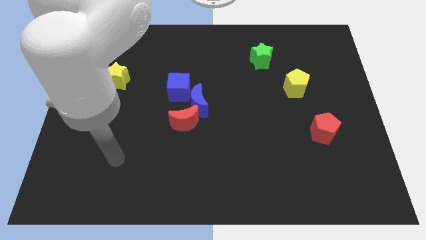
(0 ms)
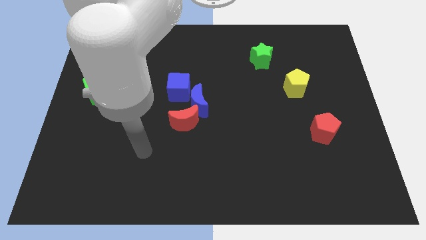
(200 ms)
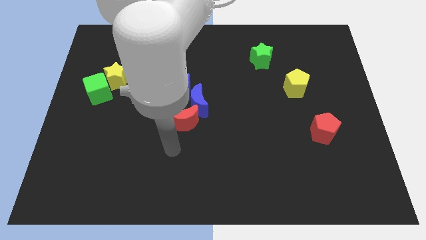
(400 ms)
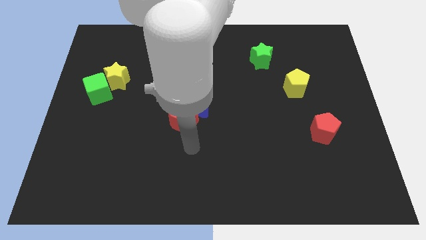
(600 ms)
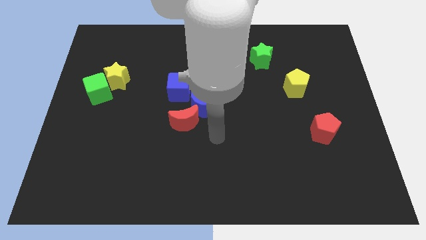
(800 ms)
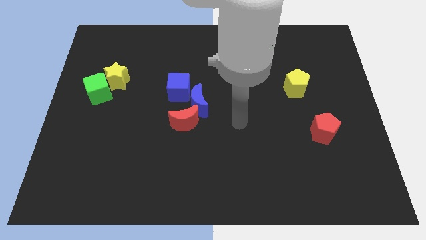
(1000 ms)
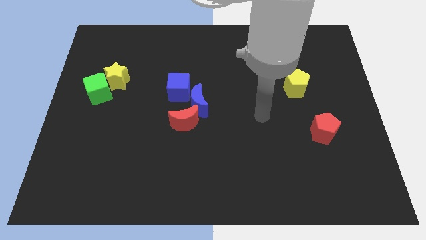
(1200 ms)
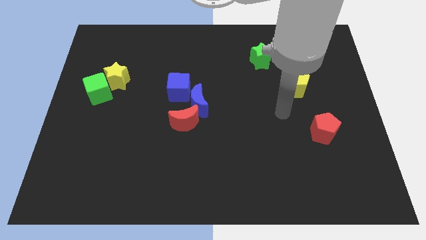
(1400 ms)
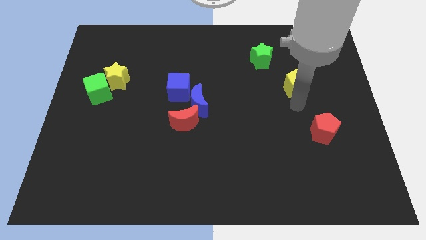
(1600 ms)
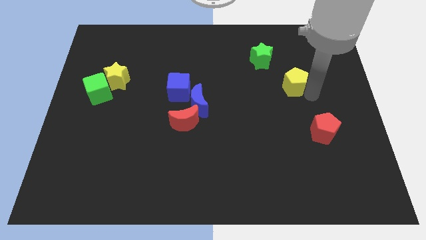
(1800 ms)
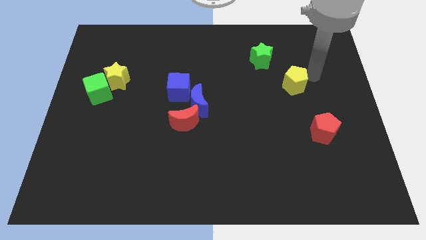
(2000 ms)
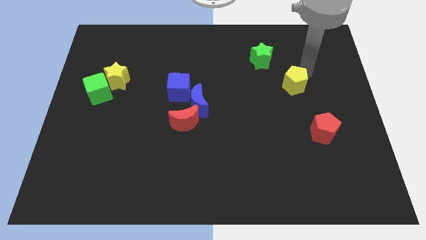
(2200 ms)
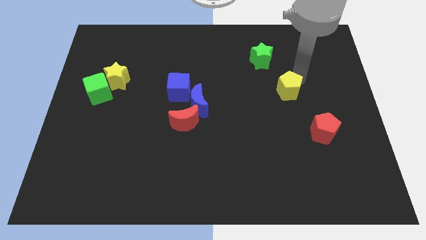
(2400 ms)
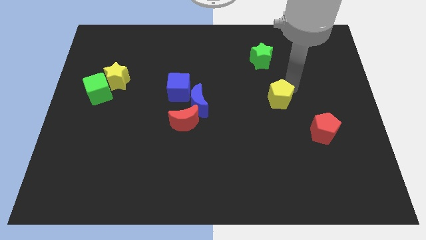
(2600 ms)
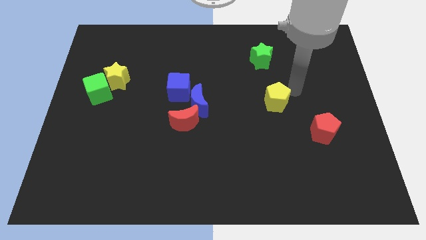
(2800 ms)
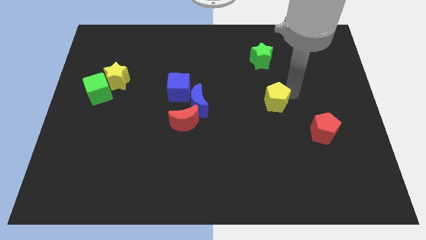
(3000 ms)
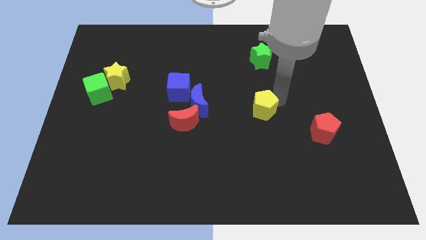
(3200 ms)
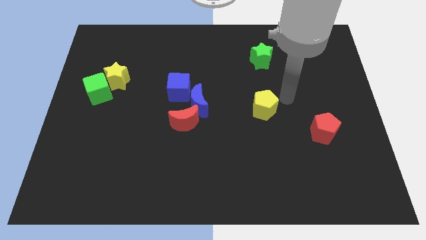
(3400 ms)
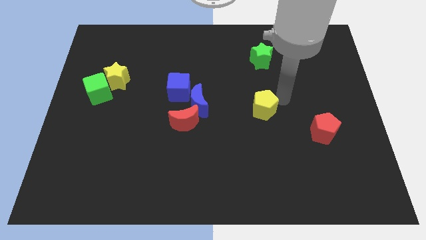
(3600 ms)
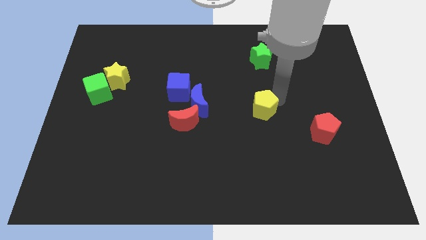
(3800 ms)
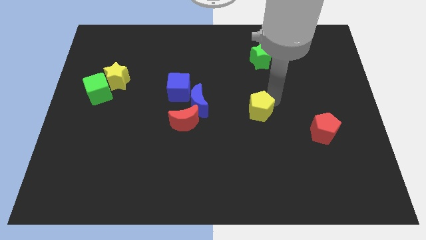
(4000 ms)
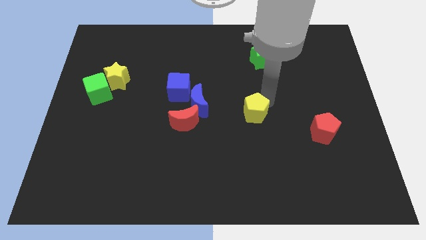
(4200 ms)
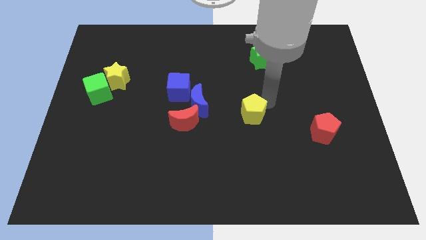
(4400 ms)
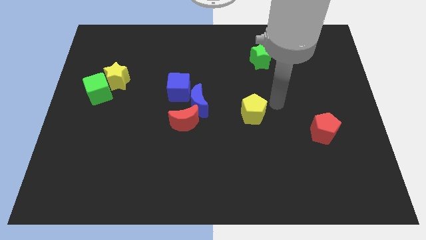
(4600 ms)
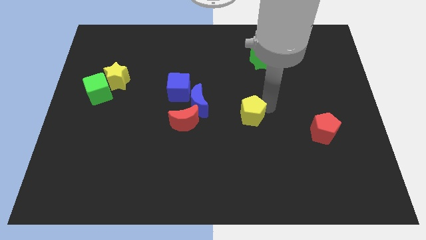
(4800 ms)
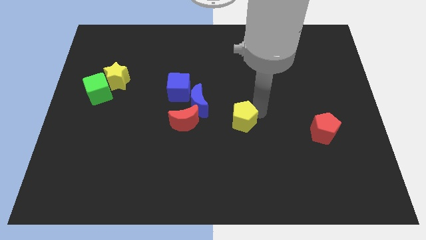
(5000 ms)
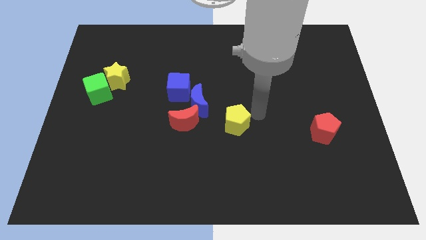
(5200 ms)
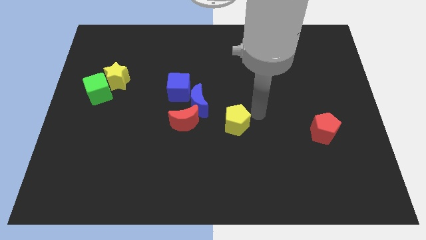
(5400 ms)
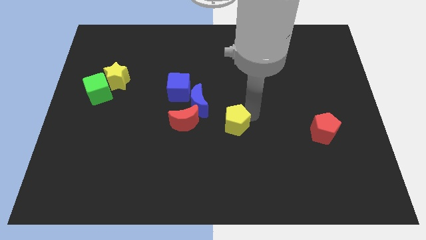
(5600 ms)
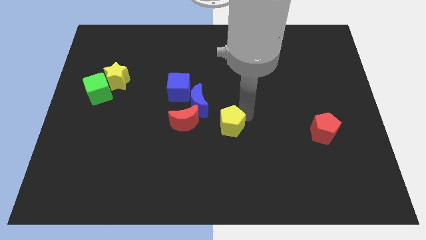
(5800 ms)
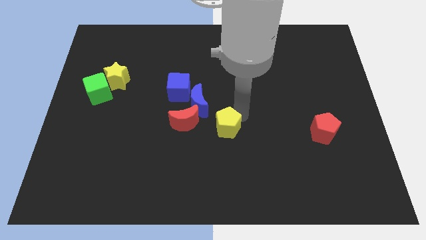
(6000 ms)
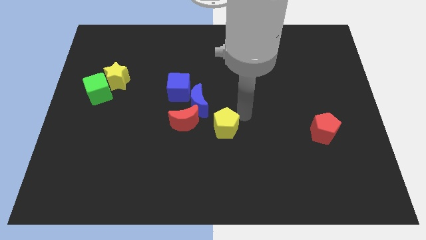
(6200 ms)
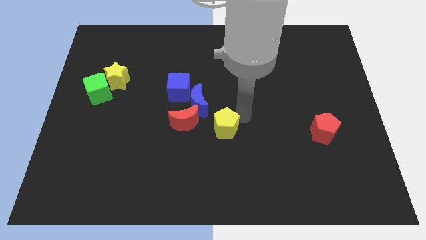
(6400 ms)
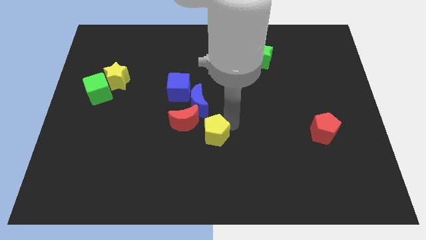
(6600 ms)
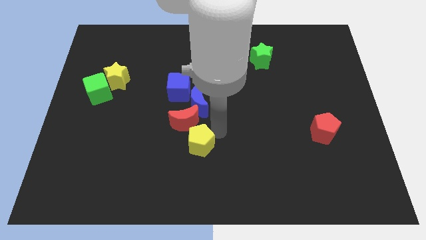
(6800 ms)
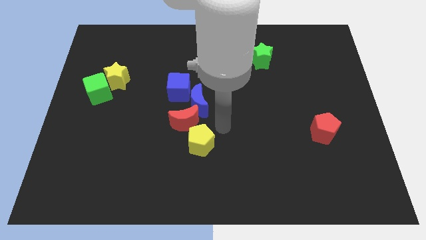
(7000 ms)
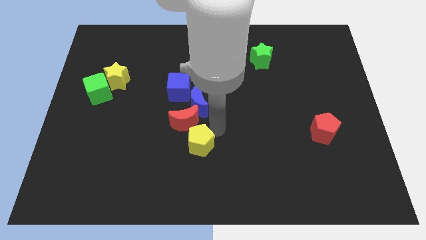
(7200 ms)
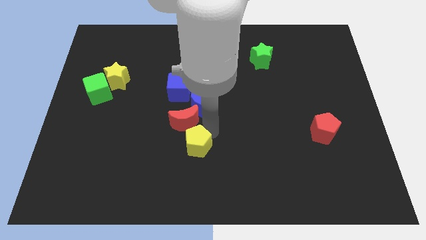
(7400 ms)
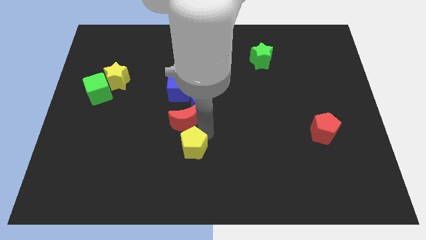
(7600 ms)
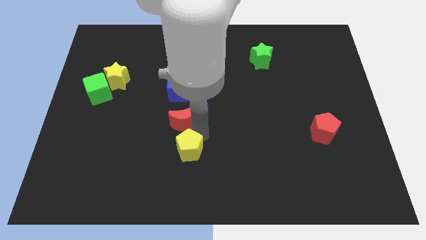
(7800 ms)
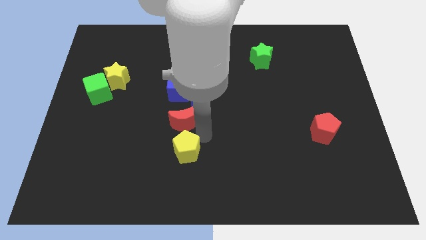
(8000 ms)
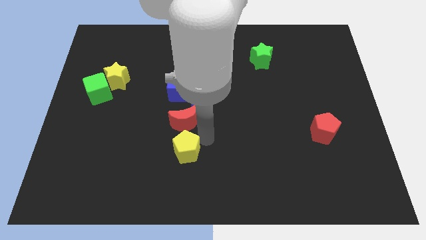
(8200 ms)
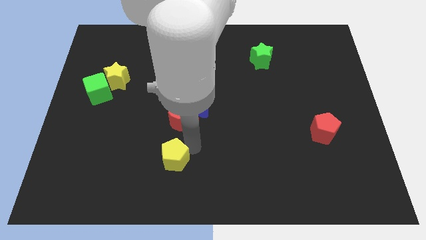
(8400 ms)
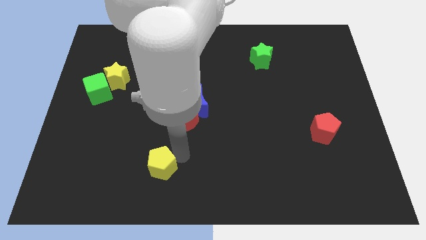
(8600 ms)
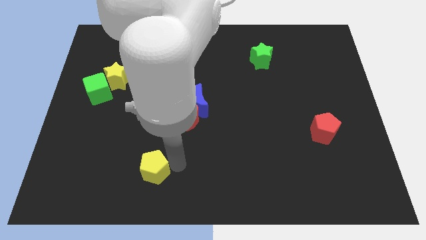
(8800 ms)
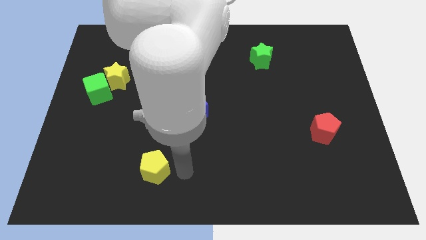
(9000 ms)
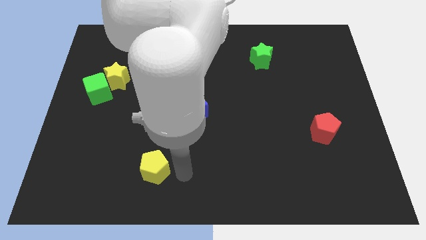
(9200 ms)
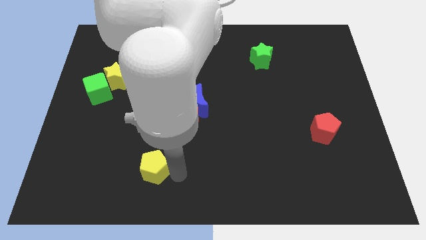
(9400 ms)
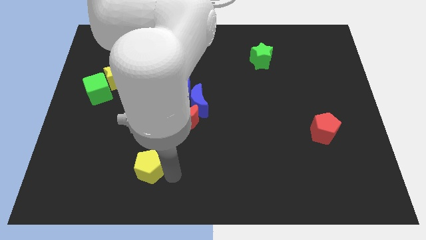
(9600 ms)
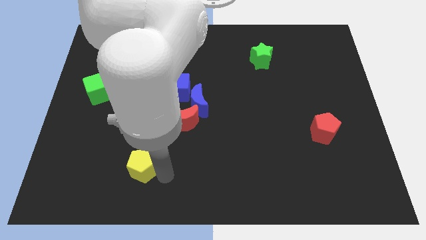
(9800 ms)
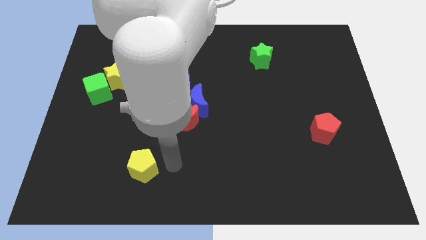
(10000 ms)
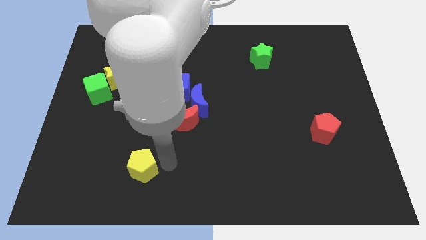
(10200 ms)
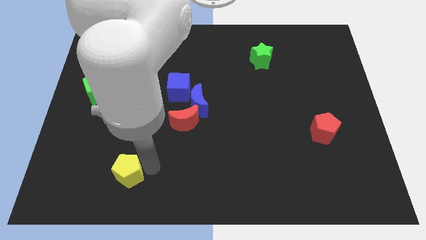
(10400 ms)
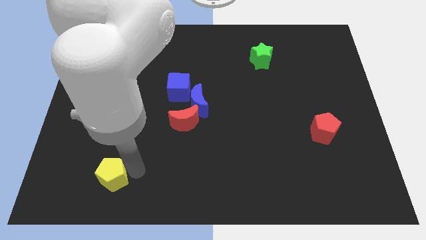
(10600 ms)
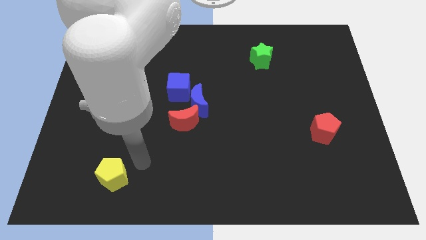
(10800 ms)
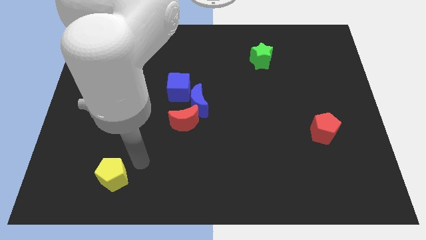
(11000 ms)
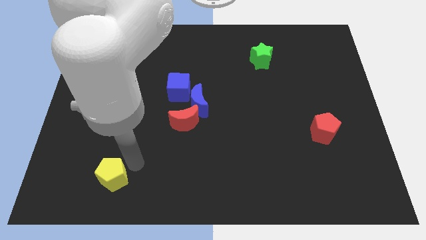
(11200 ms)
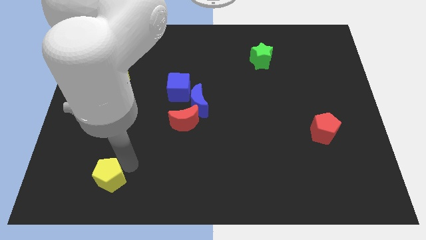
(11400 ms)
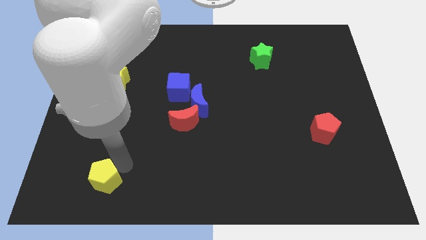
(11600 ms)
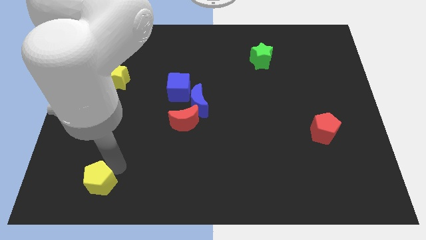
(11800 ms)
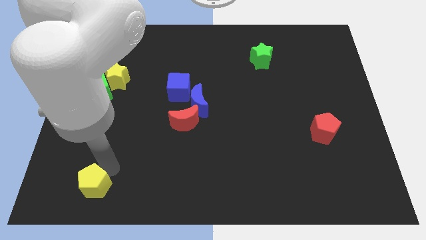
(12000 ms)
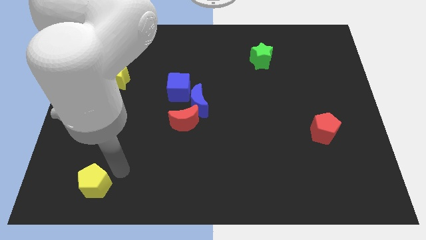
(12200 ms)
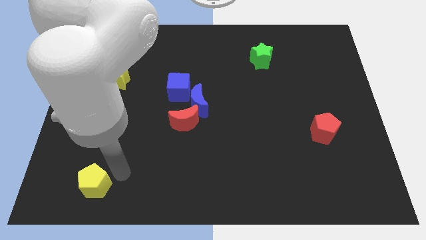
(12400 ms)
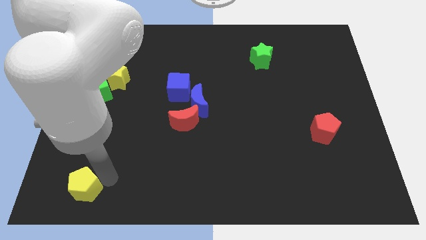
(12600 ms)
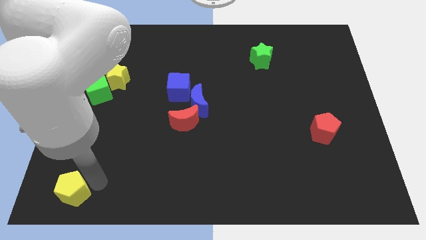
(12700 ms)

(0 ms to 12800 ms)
push the yellow pentagon to the bottom left
